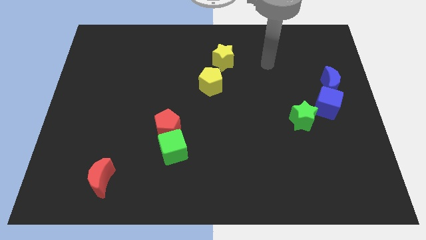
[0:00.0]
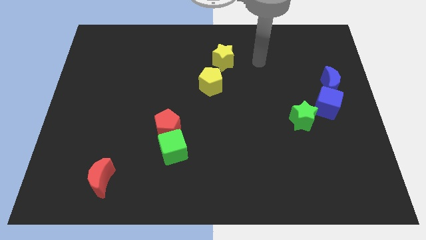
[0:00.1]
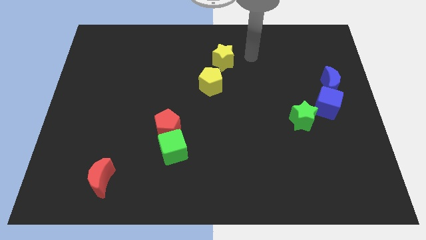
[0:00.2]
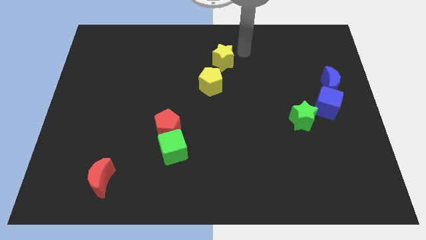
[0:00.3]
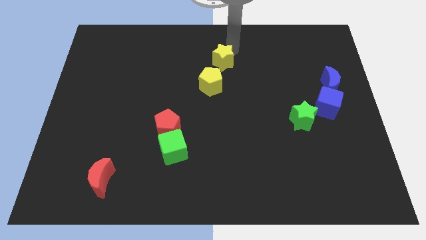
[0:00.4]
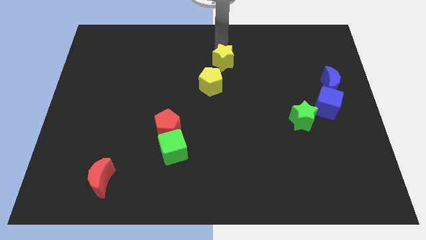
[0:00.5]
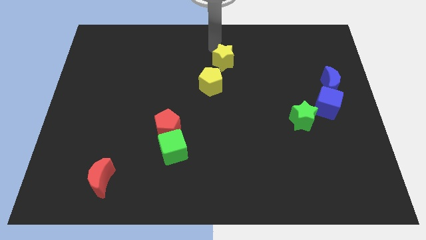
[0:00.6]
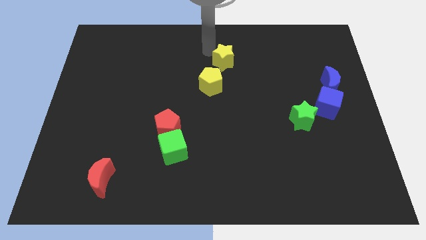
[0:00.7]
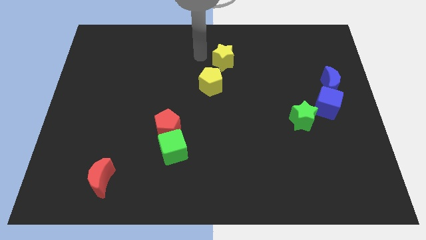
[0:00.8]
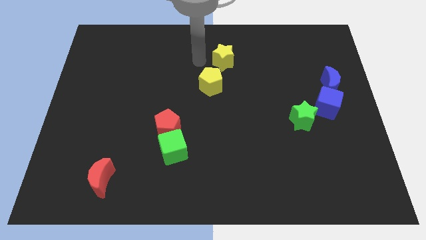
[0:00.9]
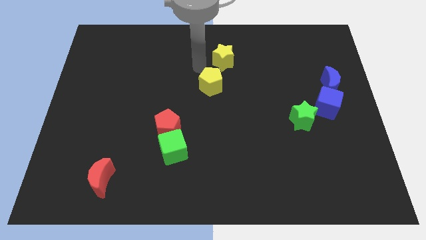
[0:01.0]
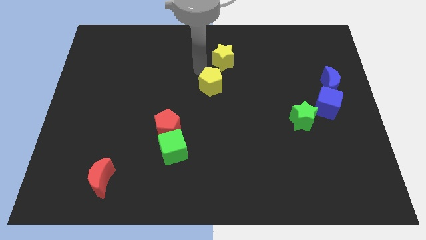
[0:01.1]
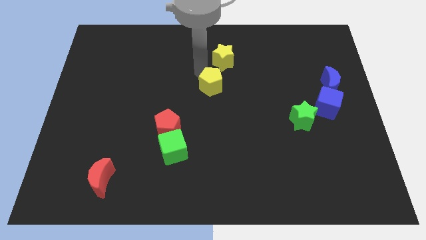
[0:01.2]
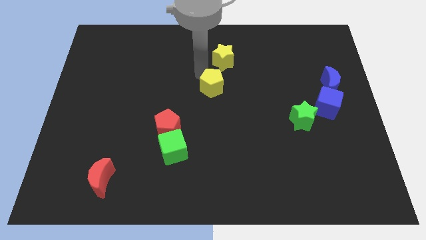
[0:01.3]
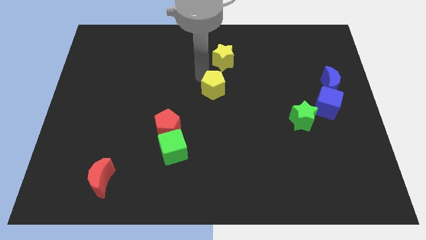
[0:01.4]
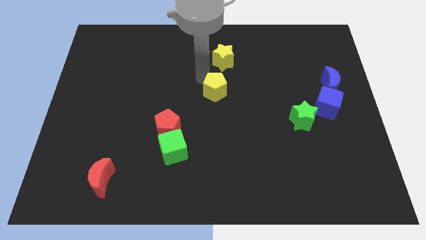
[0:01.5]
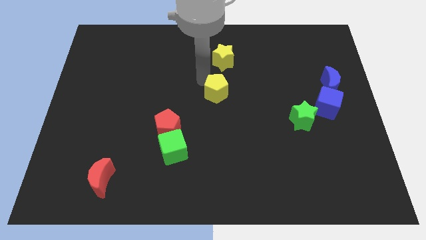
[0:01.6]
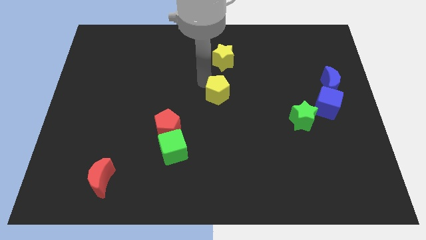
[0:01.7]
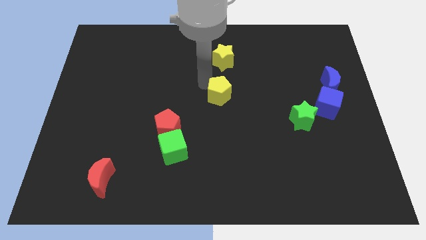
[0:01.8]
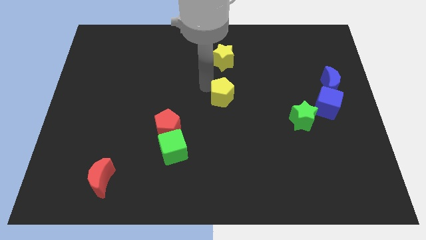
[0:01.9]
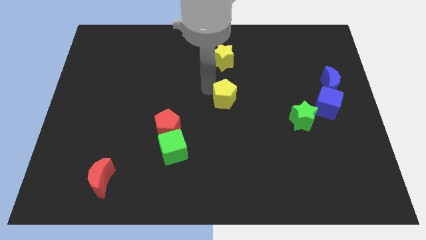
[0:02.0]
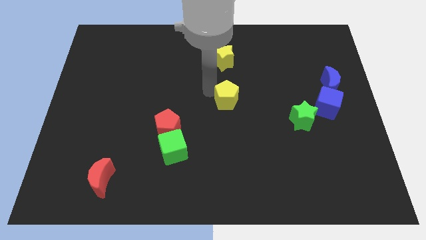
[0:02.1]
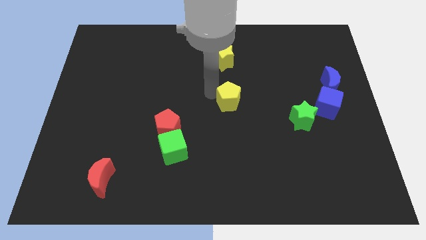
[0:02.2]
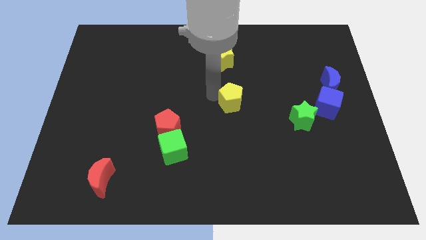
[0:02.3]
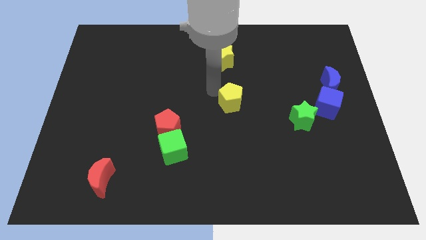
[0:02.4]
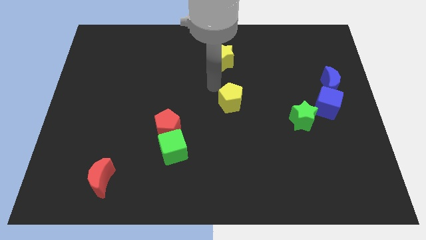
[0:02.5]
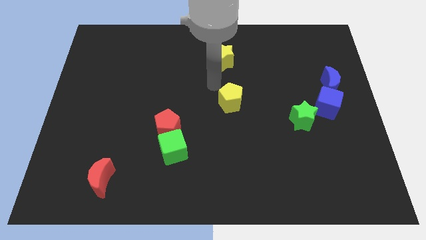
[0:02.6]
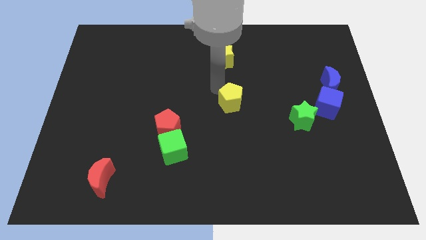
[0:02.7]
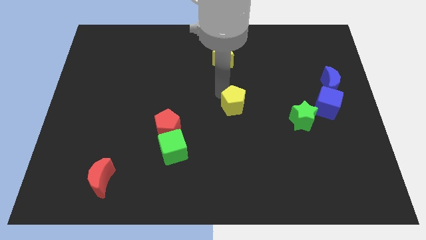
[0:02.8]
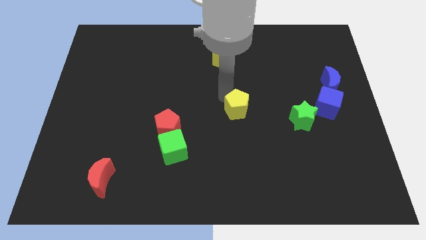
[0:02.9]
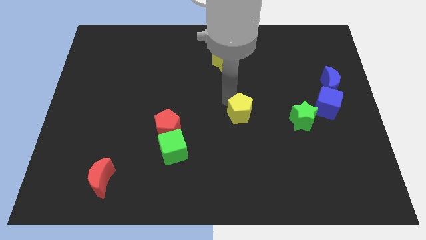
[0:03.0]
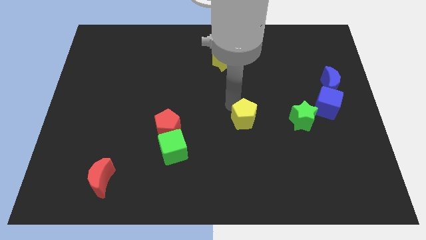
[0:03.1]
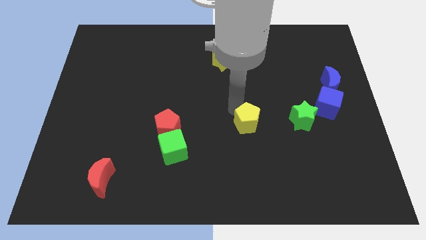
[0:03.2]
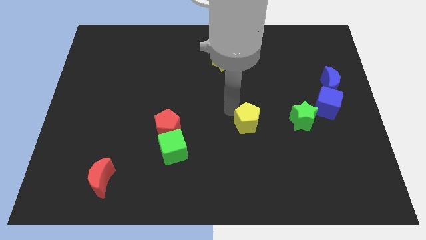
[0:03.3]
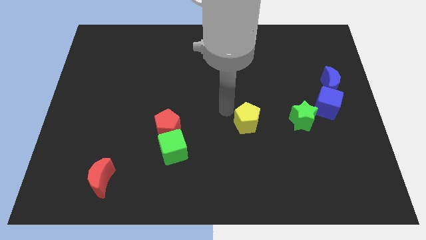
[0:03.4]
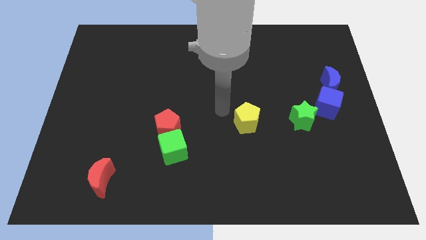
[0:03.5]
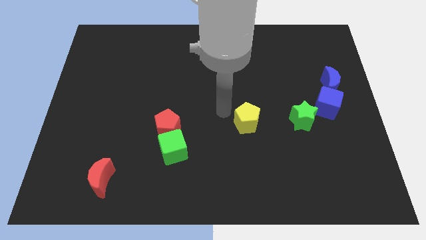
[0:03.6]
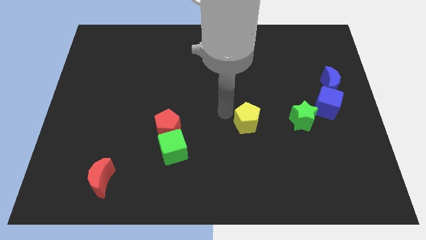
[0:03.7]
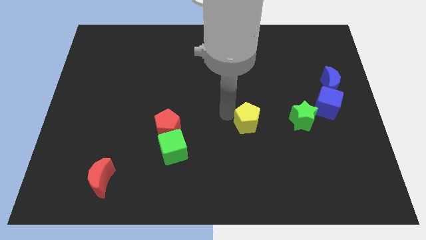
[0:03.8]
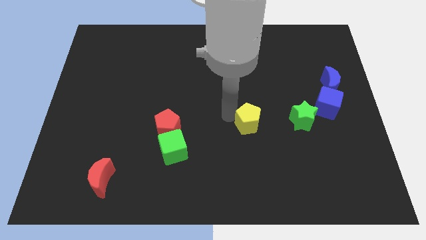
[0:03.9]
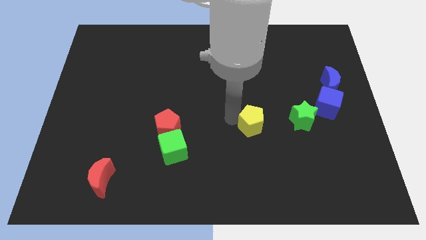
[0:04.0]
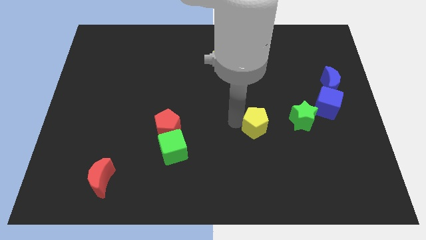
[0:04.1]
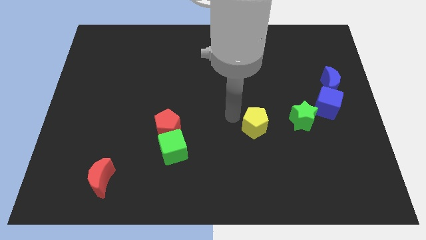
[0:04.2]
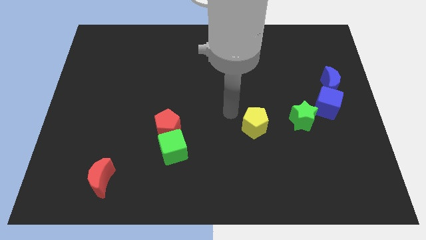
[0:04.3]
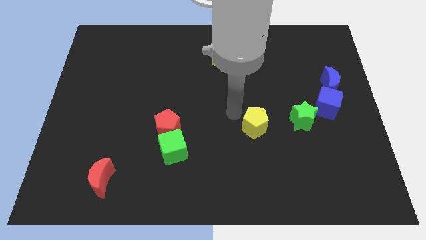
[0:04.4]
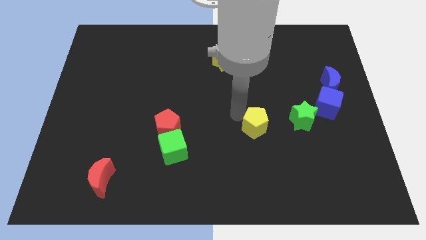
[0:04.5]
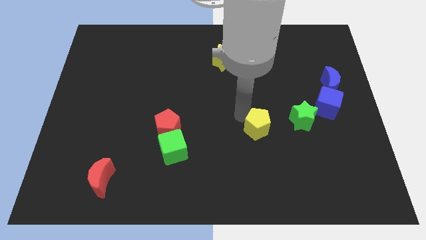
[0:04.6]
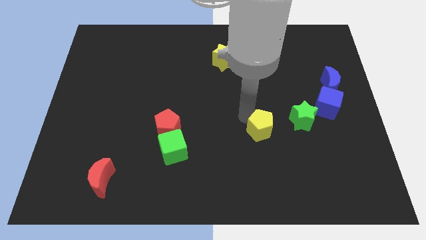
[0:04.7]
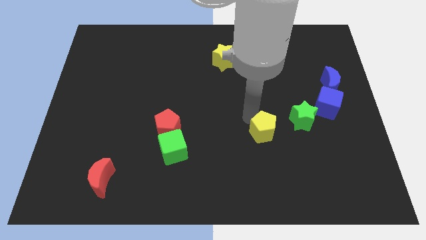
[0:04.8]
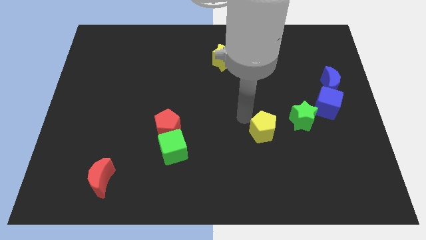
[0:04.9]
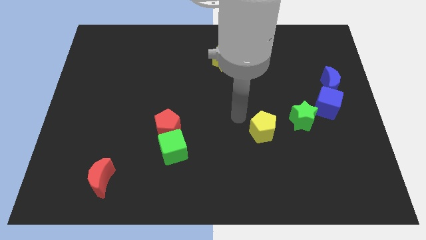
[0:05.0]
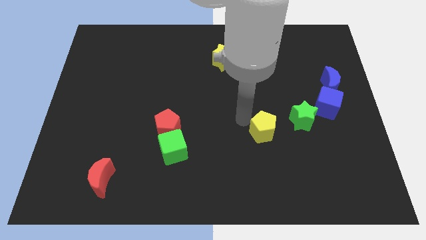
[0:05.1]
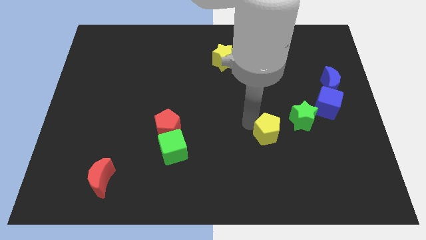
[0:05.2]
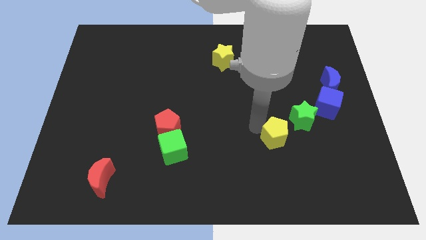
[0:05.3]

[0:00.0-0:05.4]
push the yellow pentagon down and then right

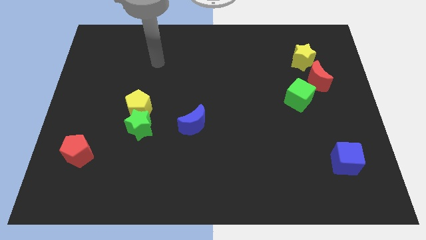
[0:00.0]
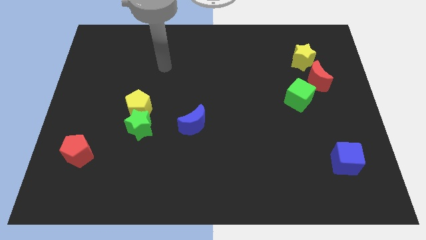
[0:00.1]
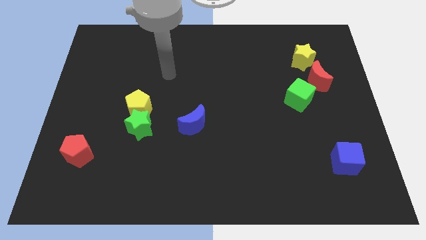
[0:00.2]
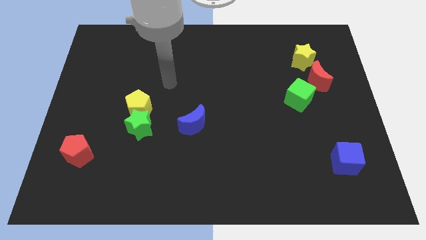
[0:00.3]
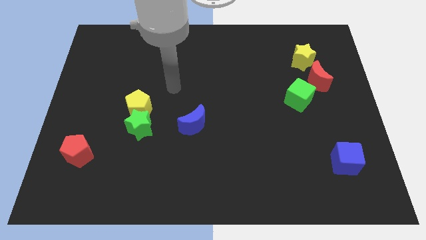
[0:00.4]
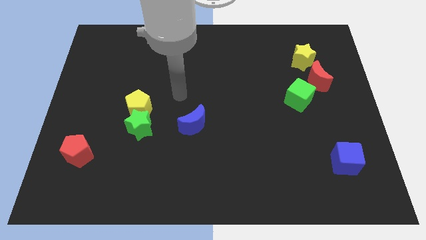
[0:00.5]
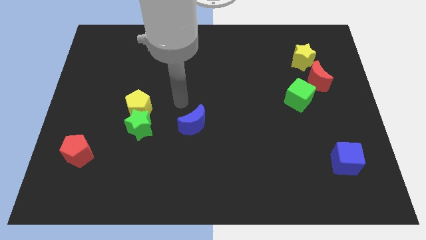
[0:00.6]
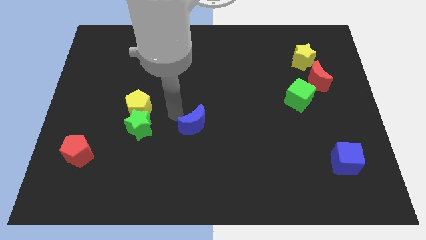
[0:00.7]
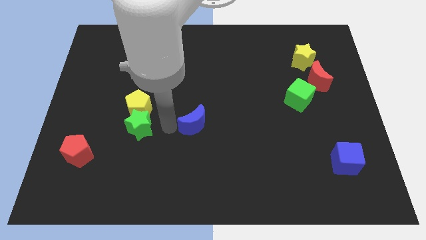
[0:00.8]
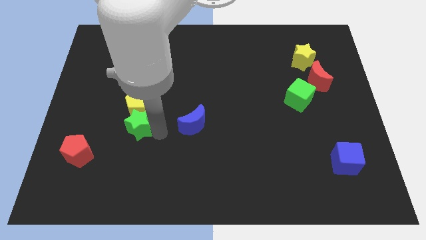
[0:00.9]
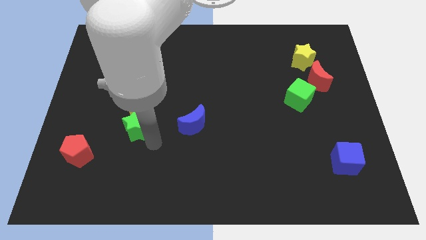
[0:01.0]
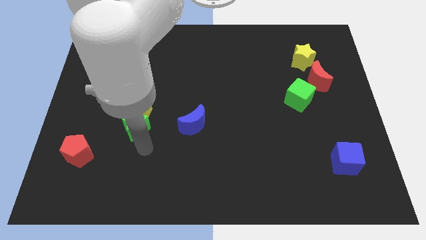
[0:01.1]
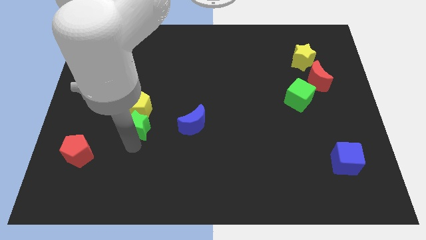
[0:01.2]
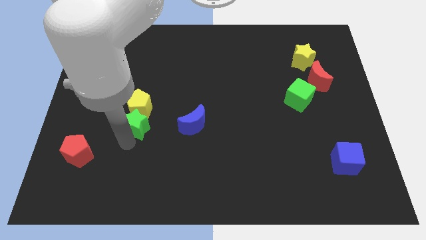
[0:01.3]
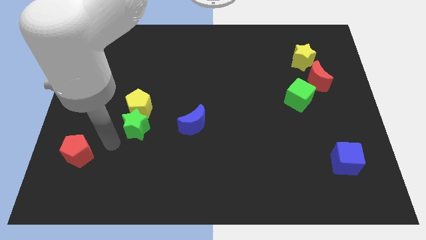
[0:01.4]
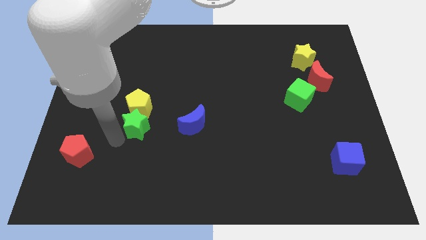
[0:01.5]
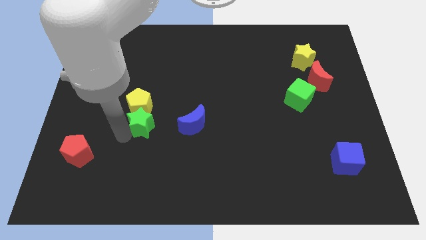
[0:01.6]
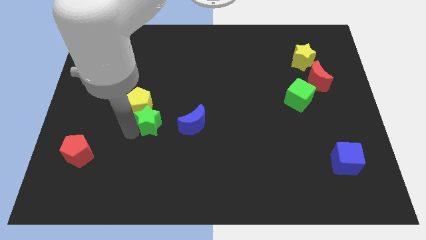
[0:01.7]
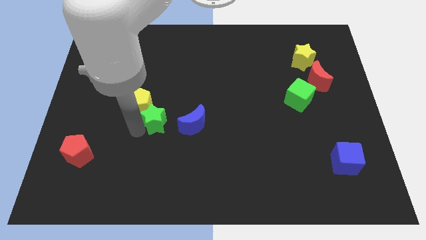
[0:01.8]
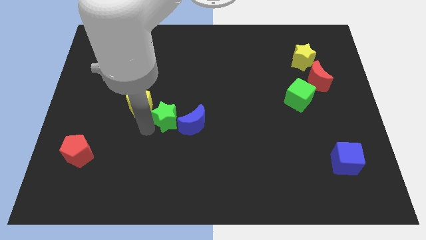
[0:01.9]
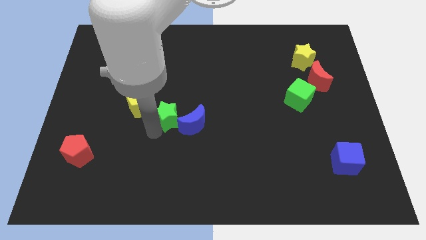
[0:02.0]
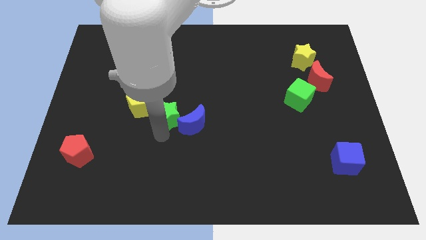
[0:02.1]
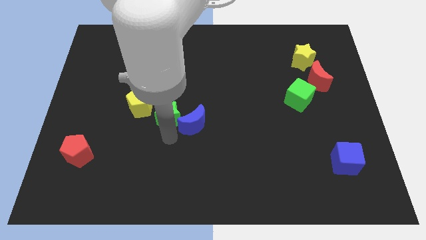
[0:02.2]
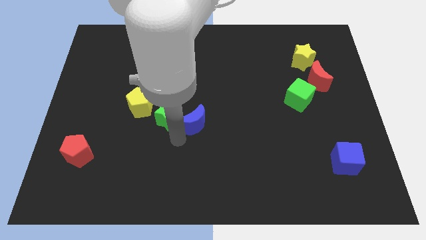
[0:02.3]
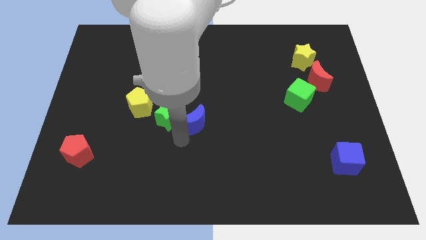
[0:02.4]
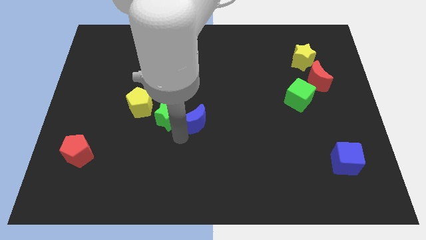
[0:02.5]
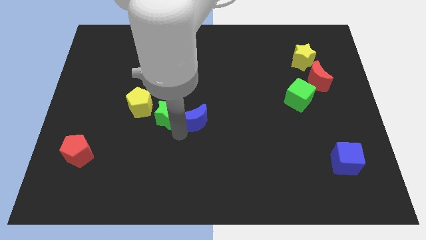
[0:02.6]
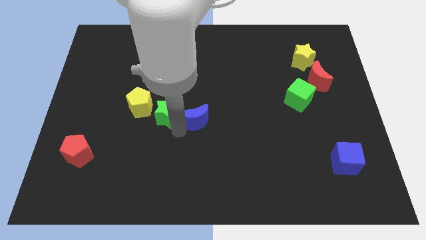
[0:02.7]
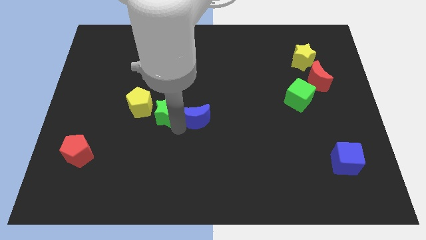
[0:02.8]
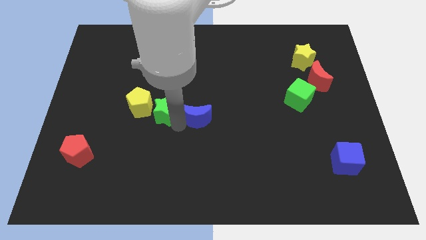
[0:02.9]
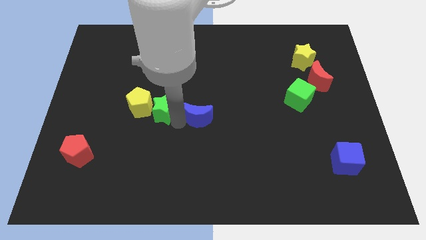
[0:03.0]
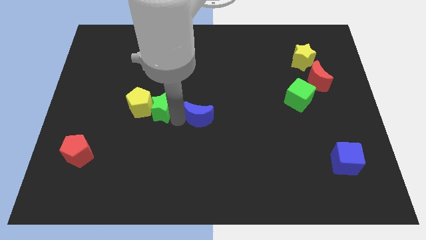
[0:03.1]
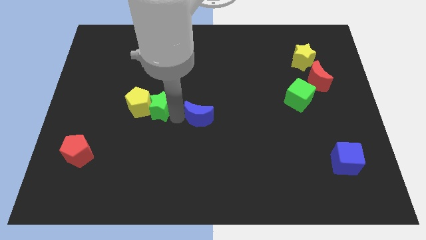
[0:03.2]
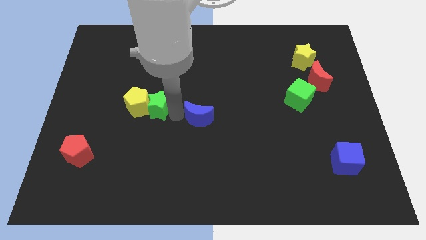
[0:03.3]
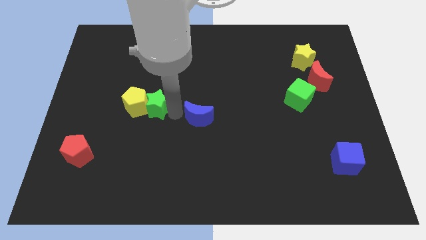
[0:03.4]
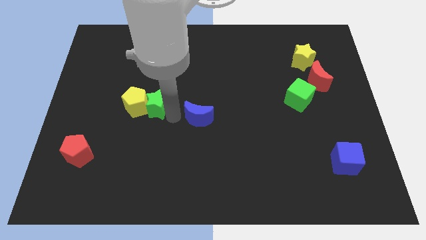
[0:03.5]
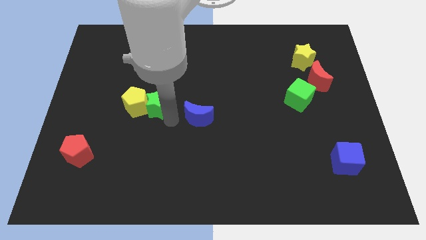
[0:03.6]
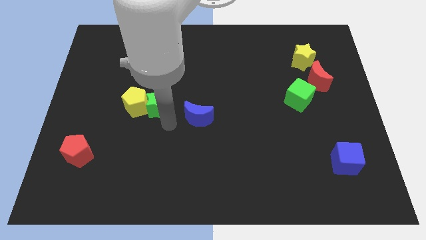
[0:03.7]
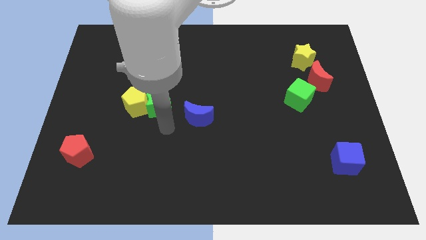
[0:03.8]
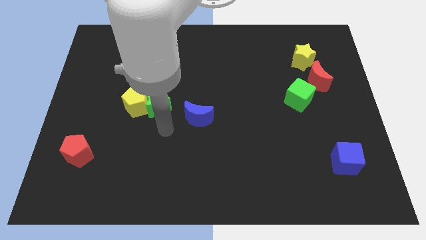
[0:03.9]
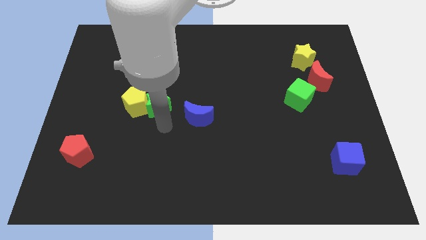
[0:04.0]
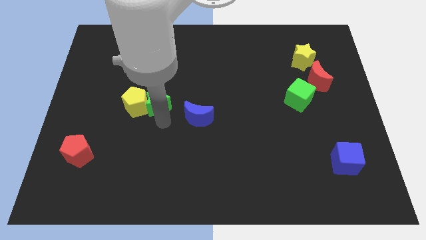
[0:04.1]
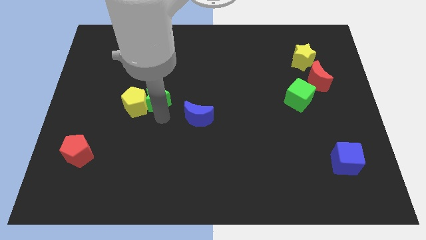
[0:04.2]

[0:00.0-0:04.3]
slightly move the green star up
